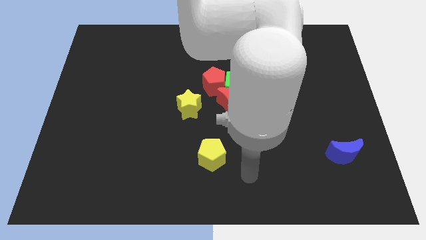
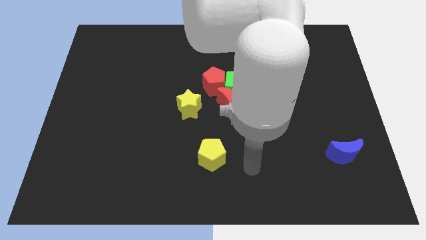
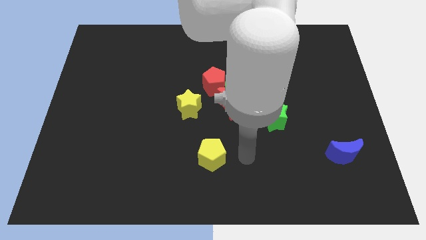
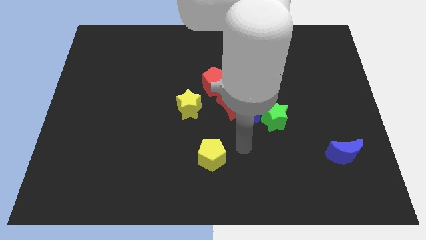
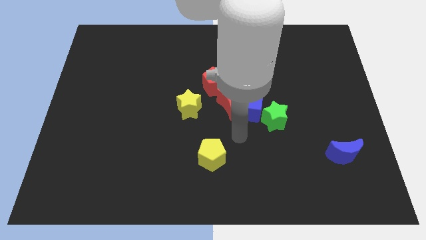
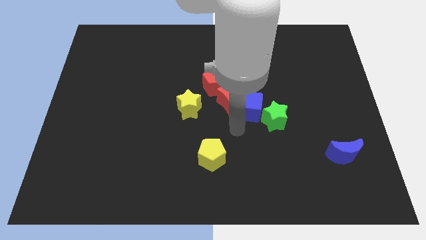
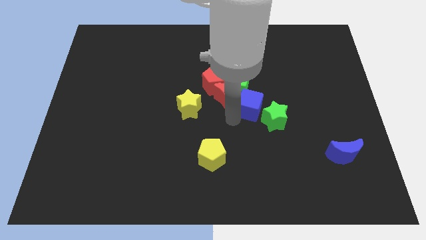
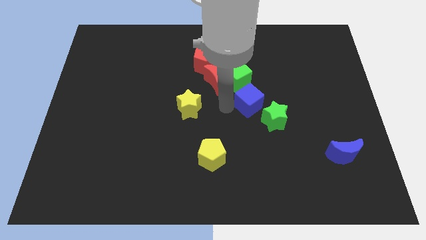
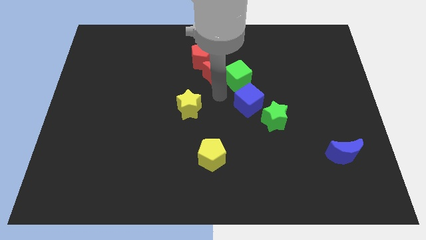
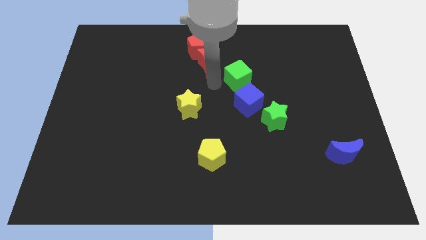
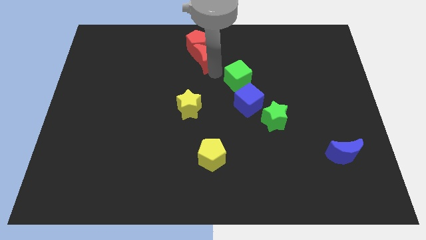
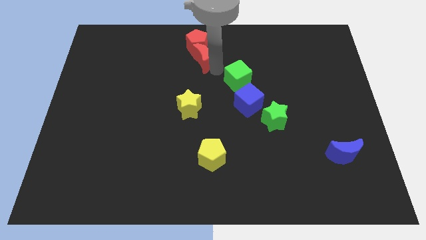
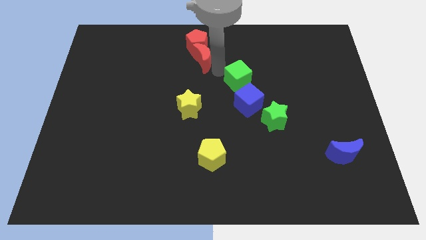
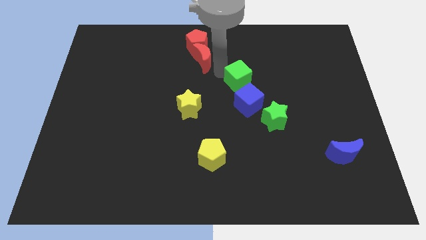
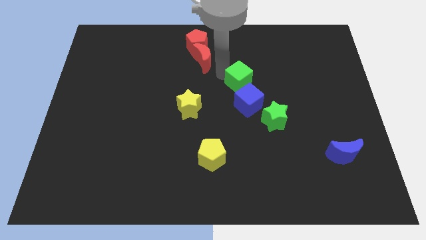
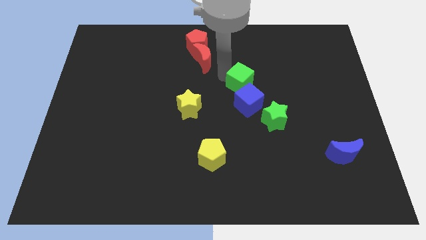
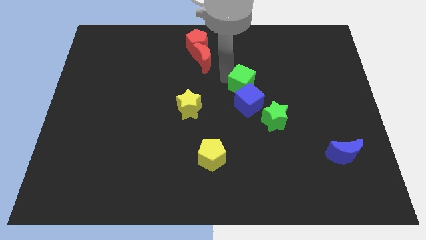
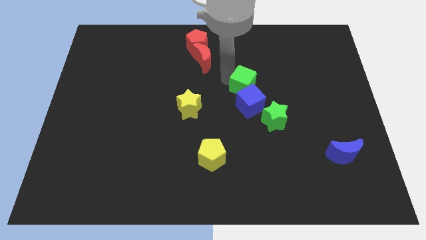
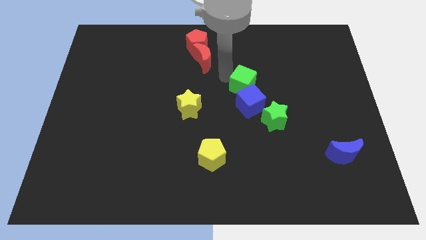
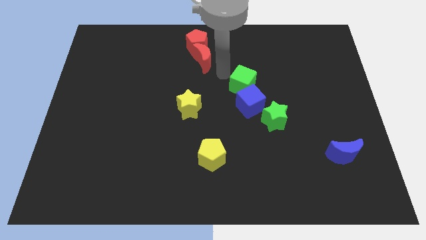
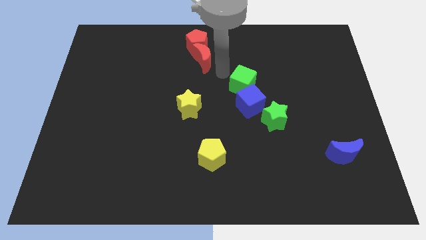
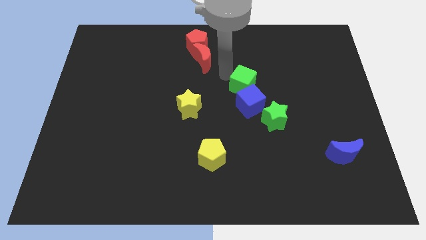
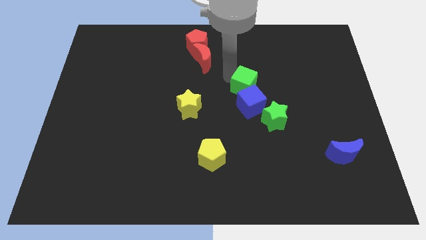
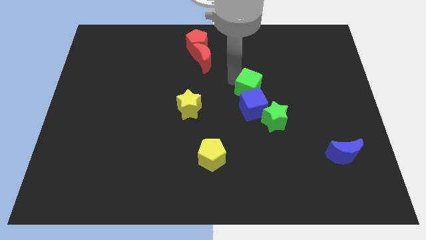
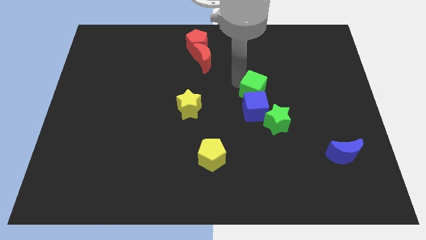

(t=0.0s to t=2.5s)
pull the green cube apart from the red moon, red pentagon, and blue cube

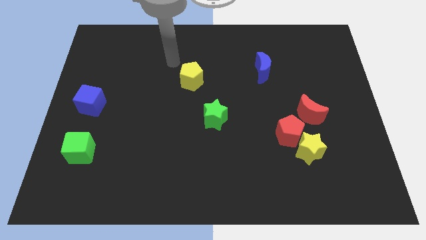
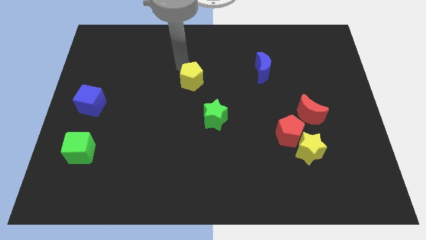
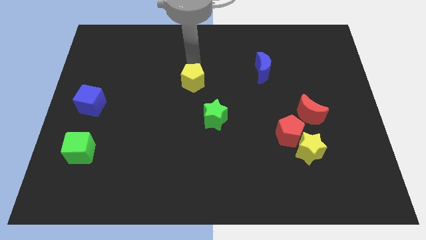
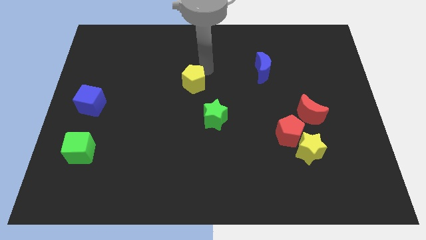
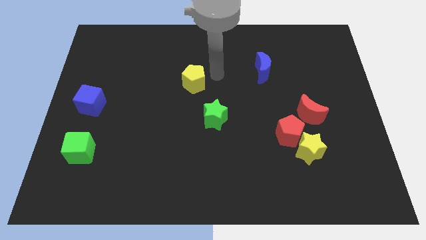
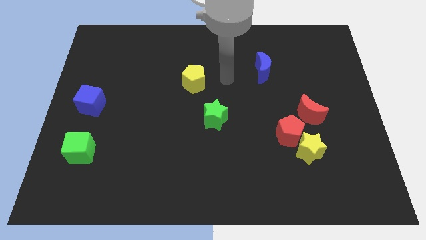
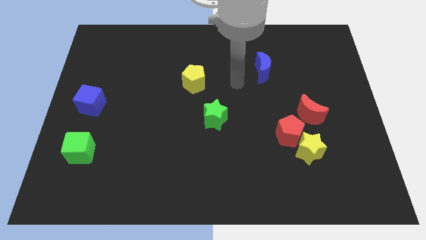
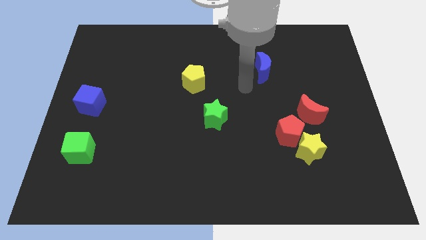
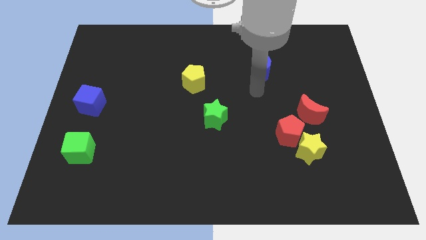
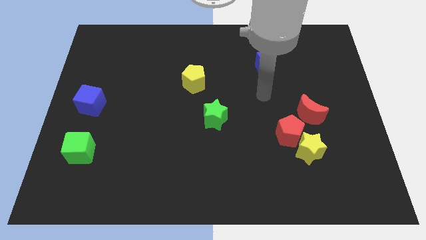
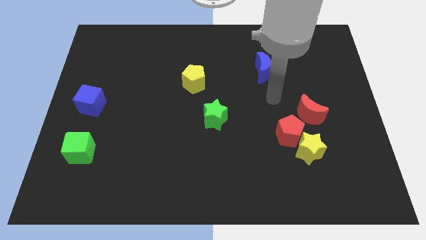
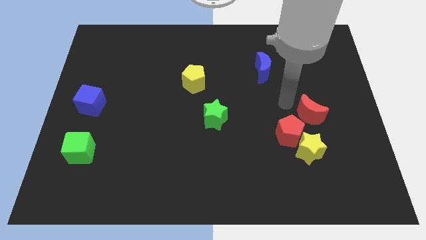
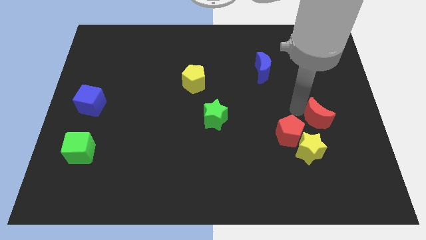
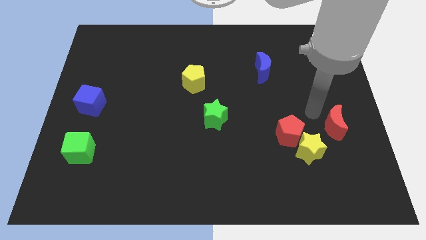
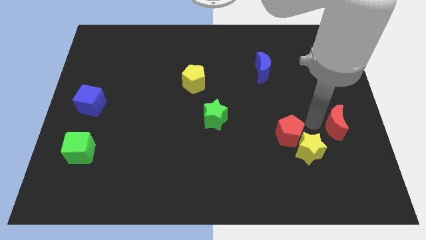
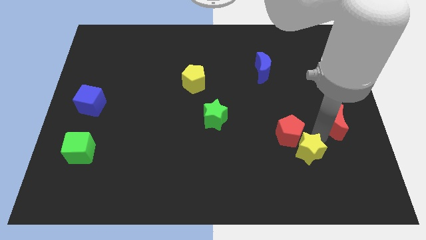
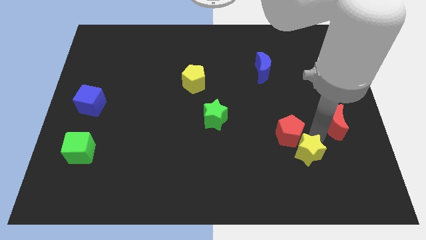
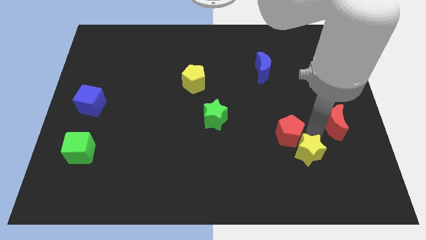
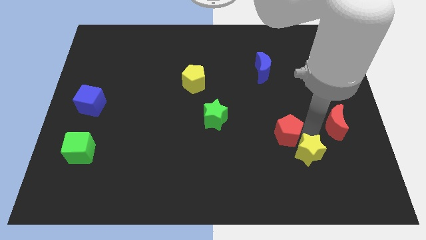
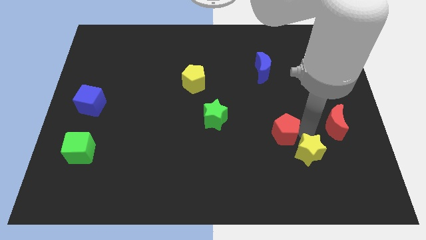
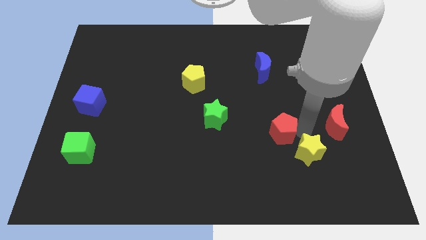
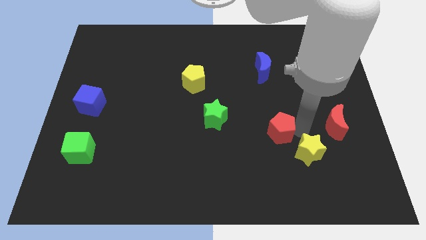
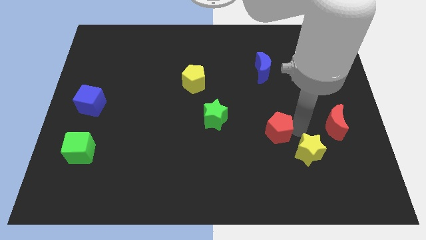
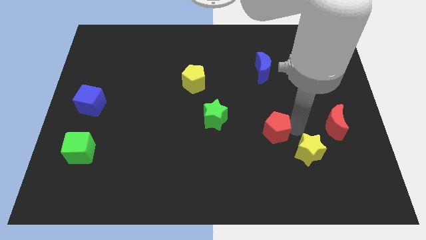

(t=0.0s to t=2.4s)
pull the red pentagon apart from the yellow star and red moon

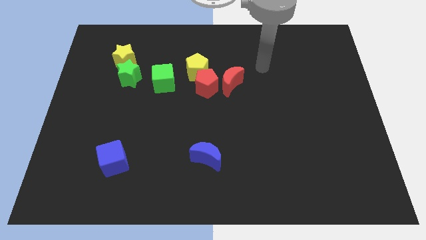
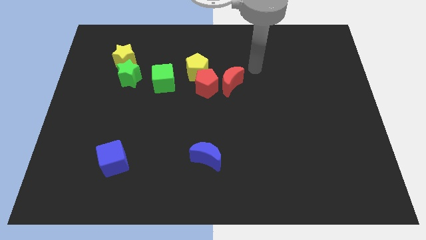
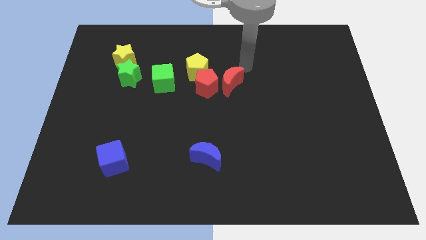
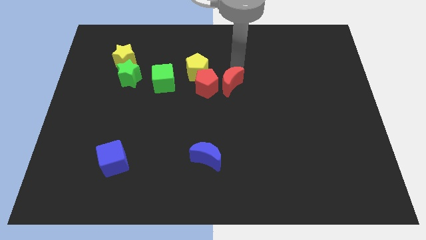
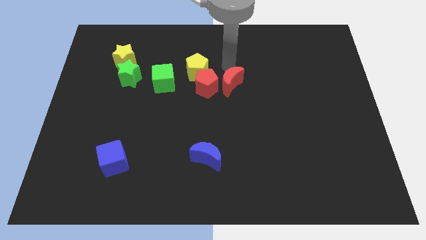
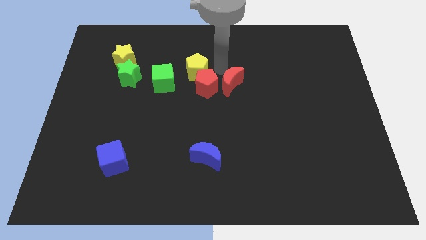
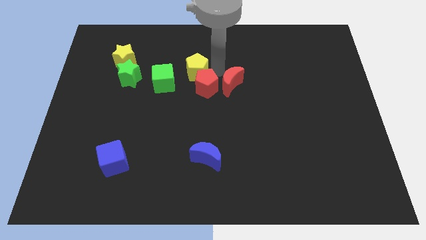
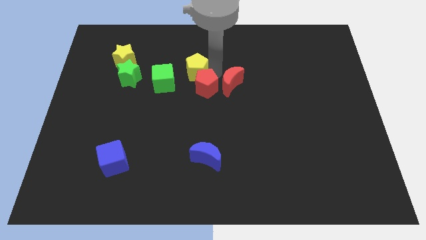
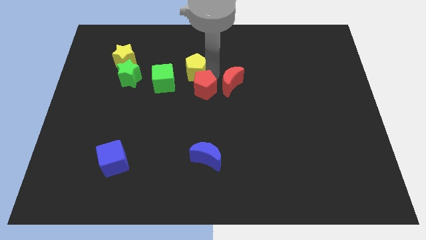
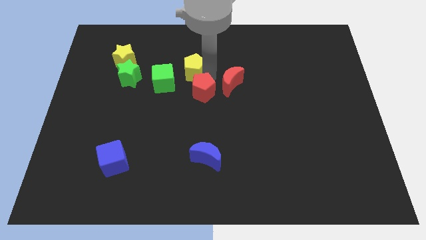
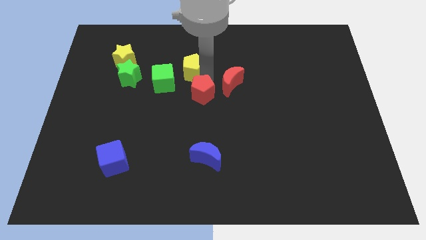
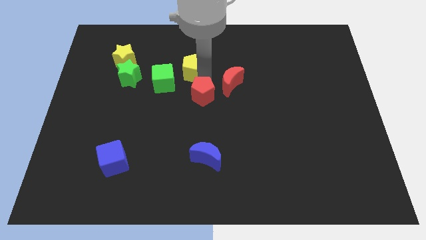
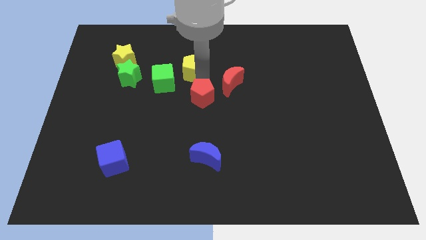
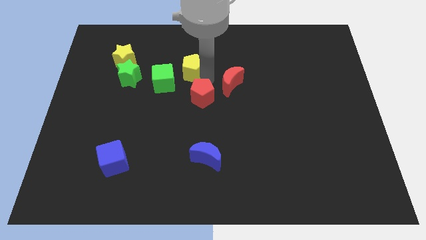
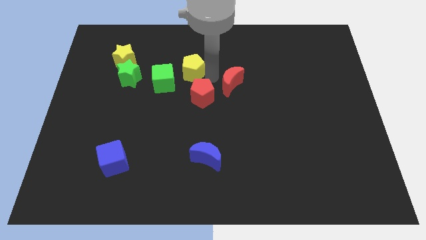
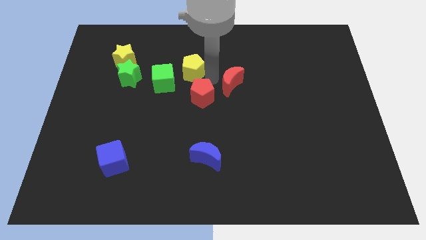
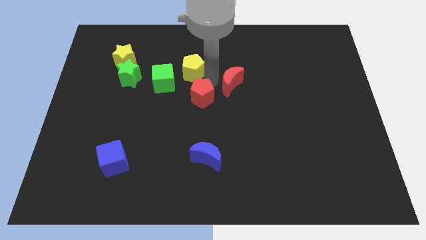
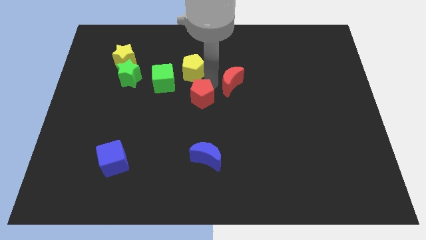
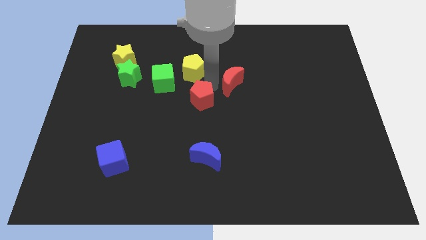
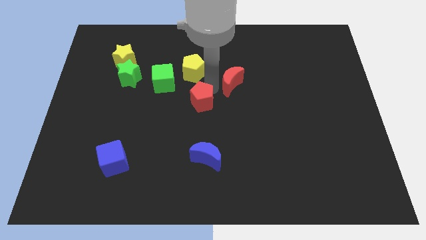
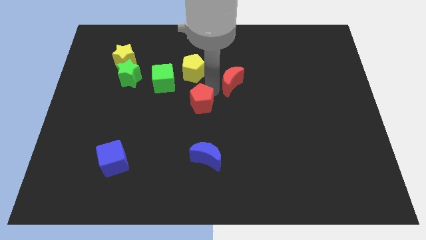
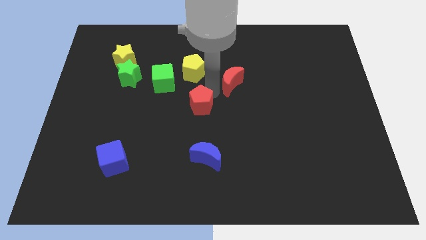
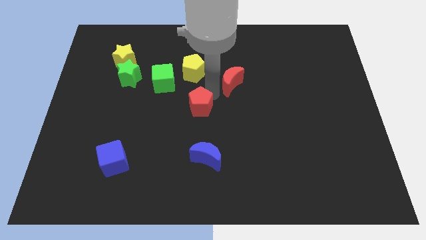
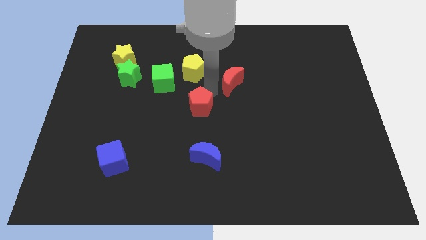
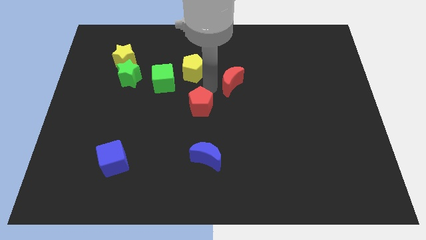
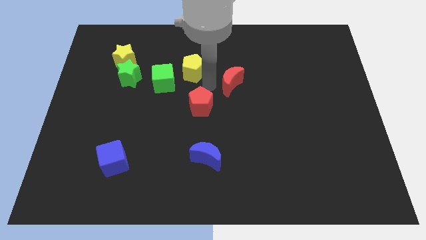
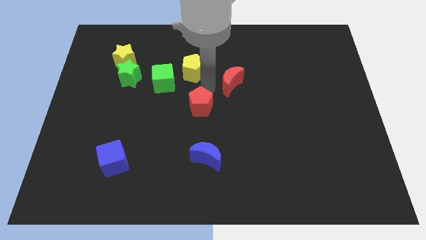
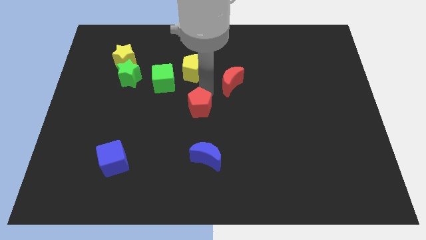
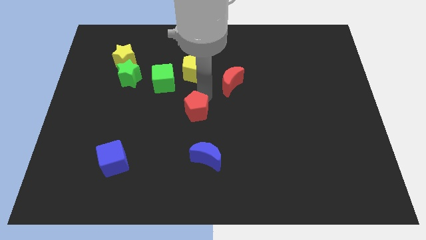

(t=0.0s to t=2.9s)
separate the red pentagon from the yellow pentagon and red moon

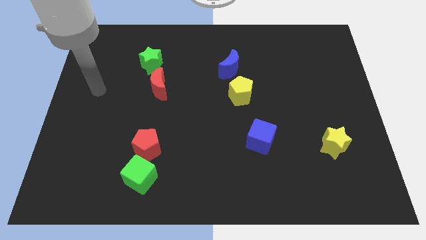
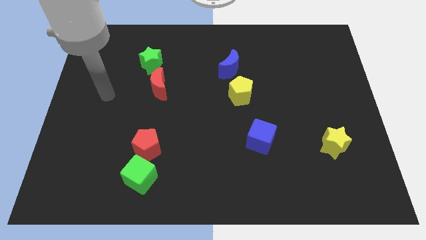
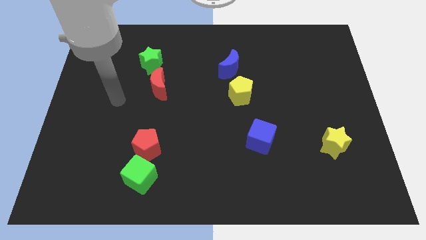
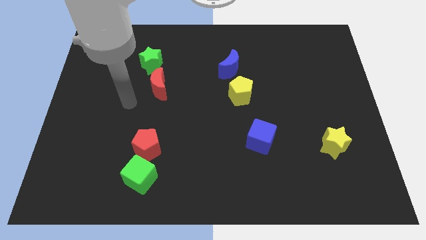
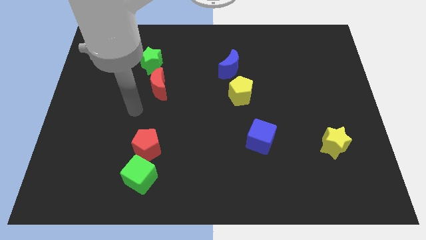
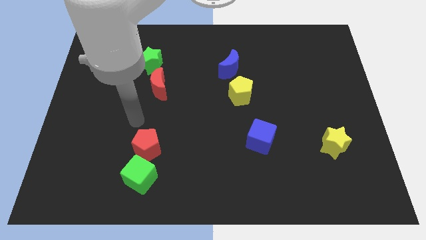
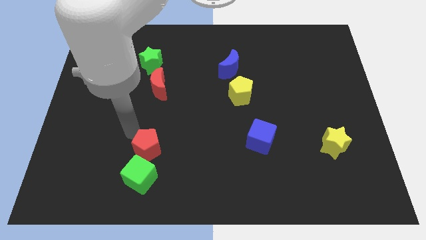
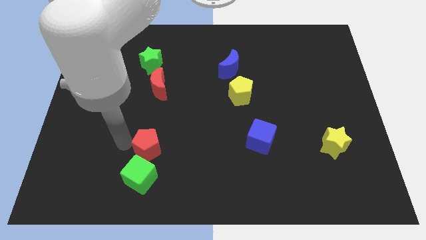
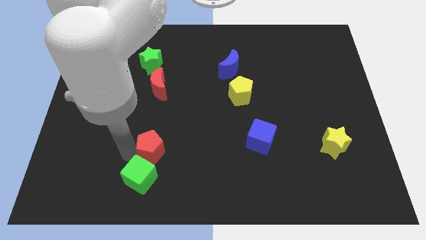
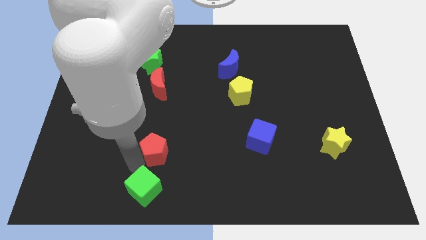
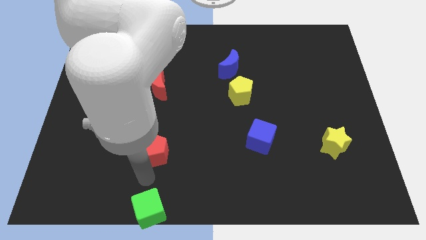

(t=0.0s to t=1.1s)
pull the red pentagon apart from the green cube

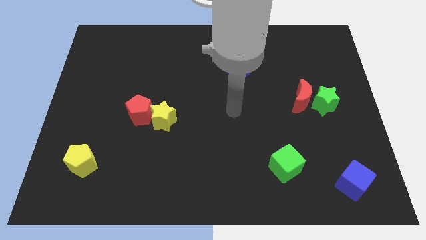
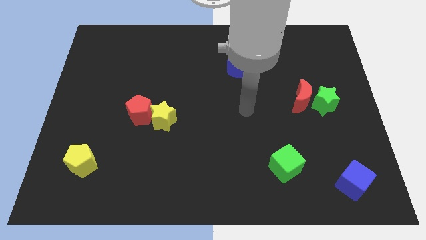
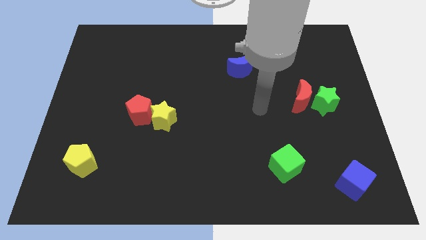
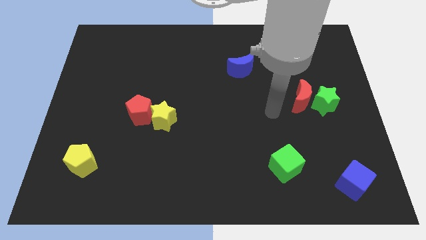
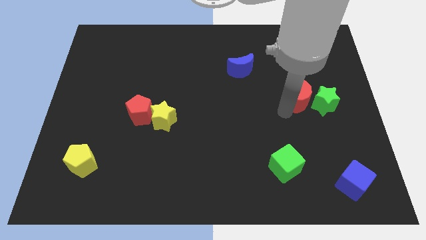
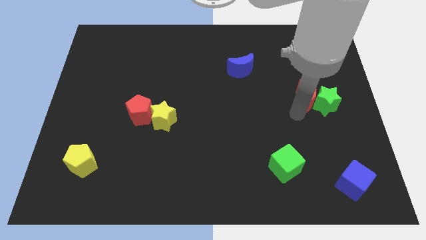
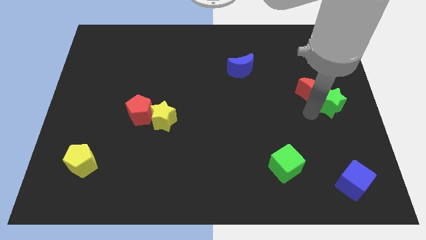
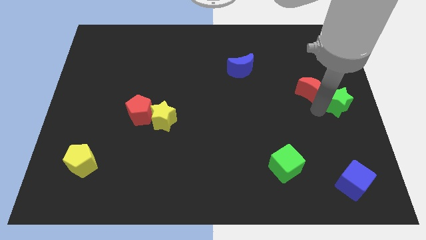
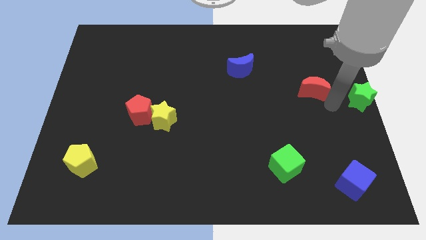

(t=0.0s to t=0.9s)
move the red moon away from the green star
